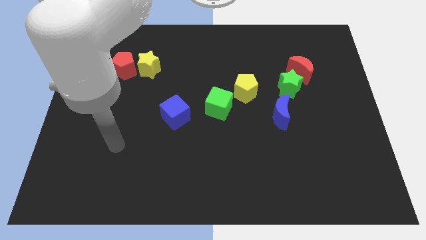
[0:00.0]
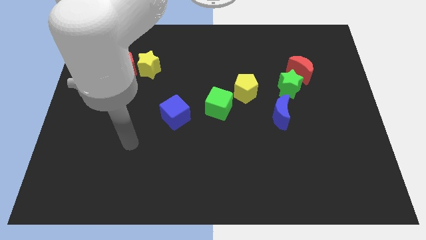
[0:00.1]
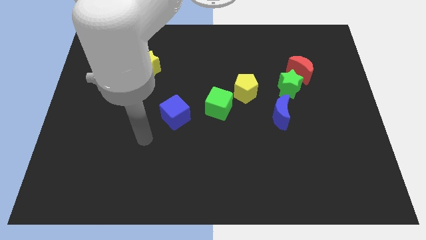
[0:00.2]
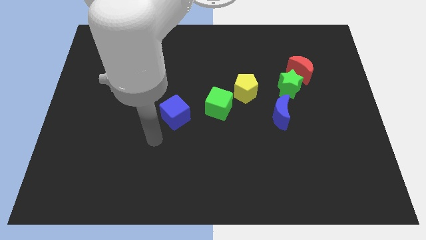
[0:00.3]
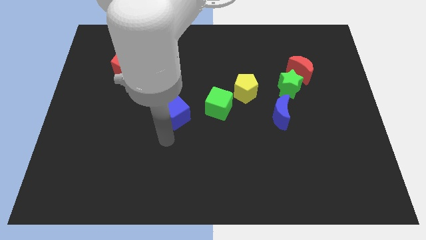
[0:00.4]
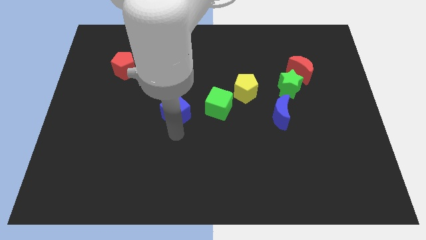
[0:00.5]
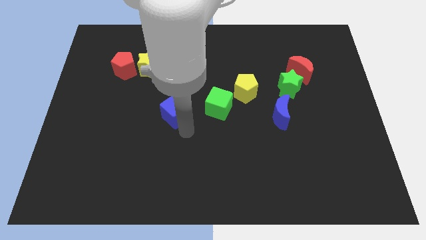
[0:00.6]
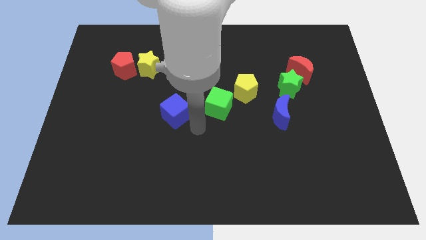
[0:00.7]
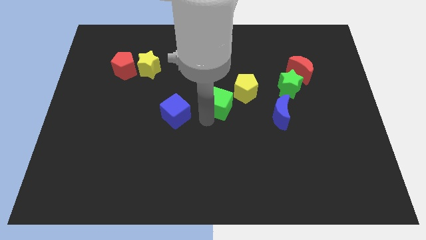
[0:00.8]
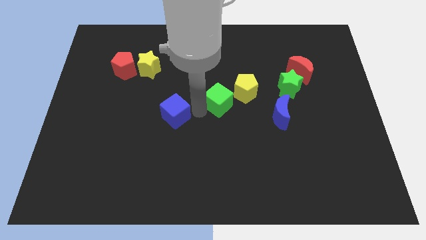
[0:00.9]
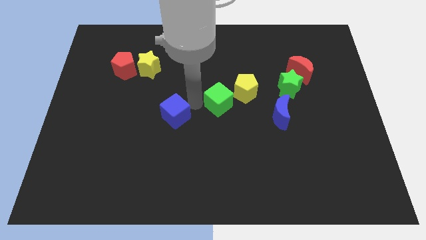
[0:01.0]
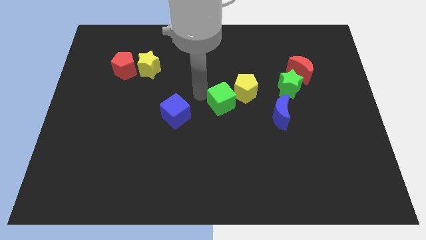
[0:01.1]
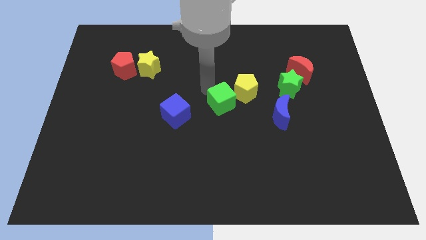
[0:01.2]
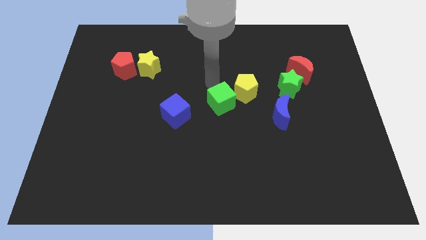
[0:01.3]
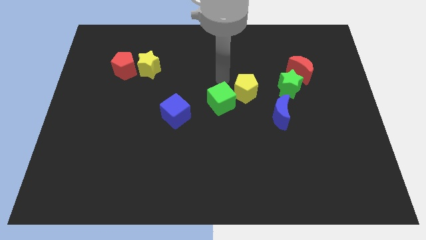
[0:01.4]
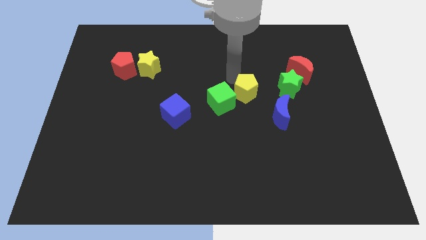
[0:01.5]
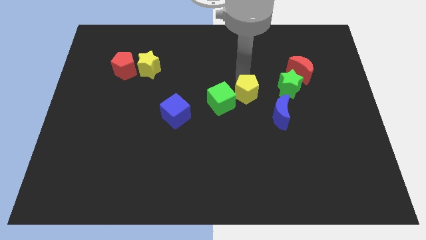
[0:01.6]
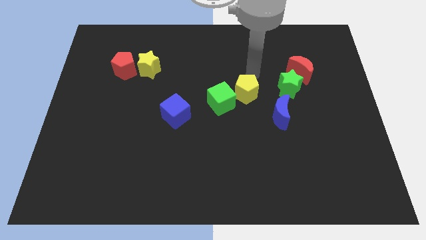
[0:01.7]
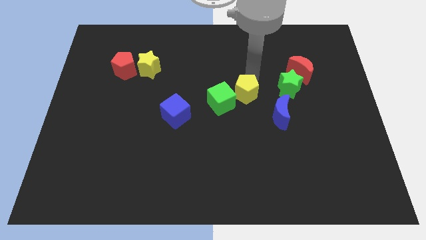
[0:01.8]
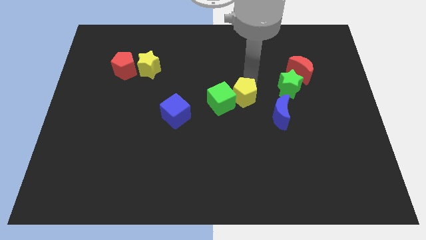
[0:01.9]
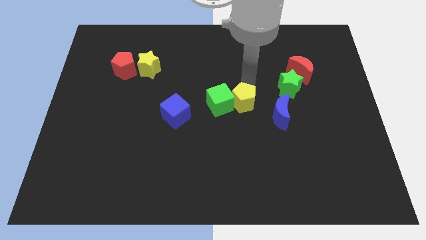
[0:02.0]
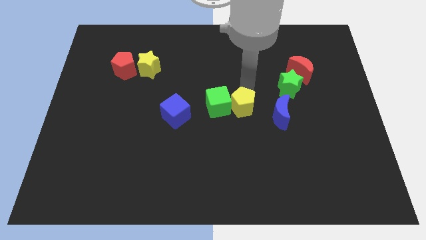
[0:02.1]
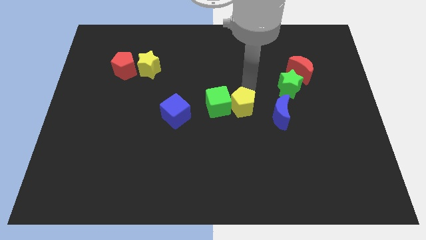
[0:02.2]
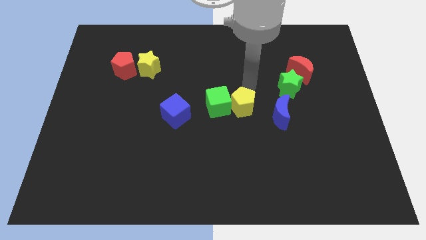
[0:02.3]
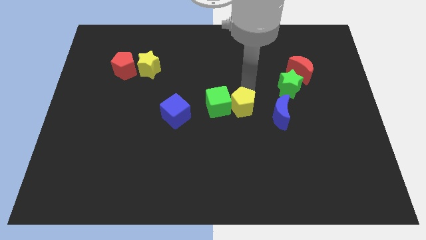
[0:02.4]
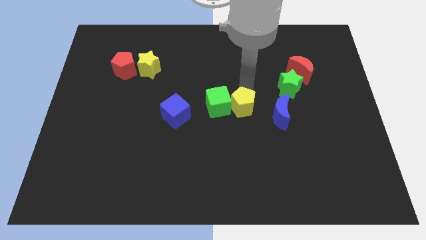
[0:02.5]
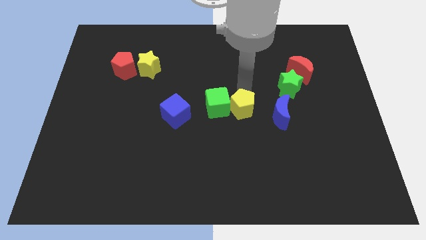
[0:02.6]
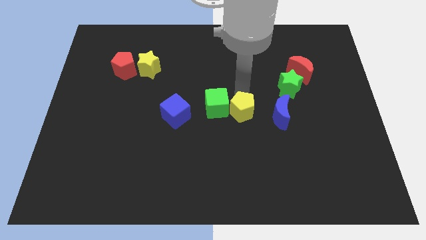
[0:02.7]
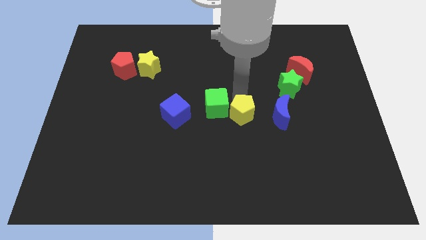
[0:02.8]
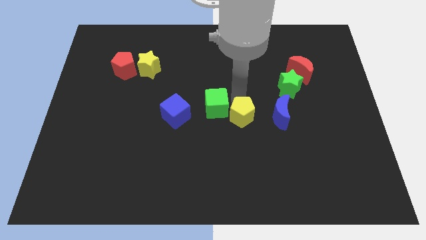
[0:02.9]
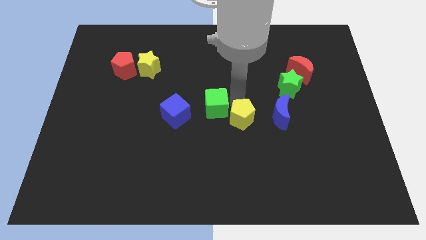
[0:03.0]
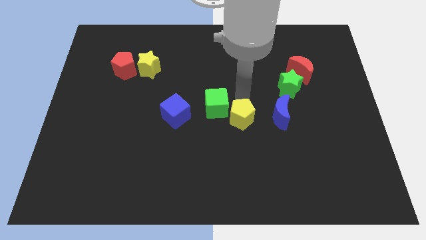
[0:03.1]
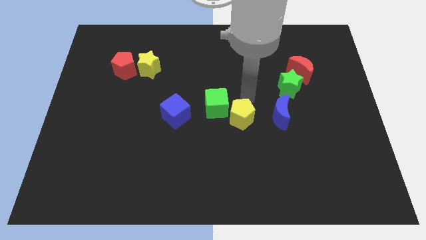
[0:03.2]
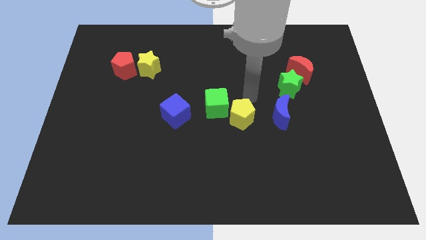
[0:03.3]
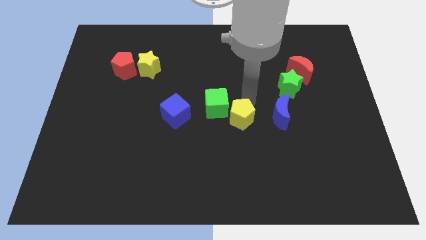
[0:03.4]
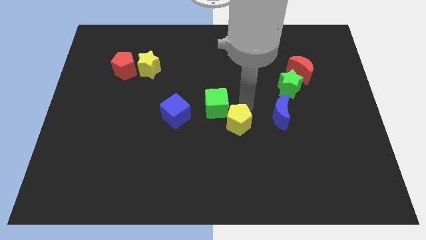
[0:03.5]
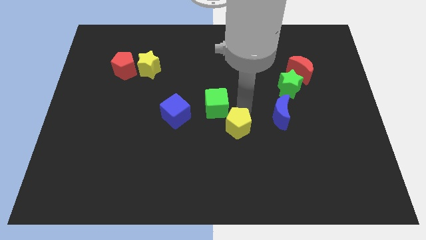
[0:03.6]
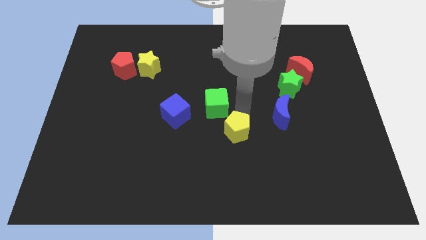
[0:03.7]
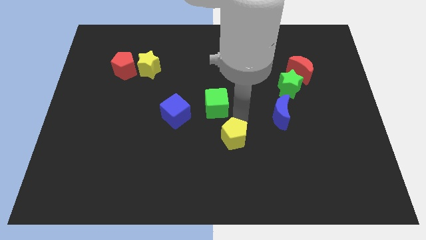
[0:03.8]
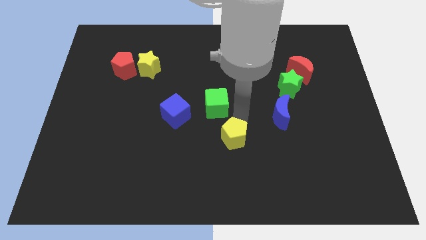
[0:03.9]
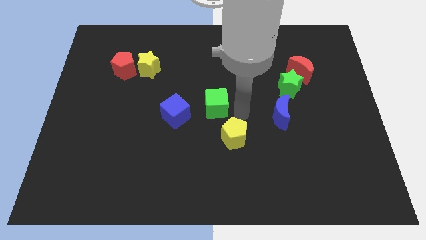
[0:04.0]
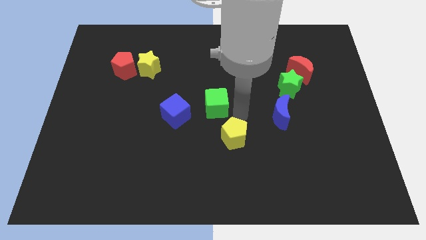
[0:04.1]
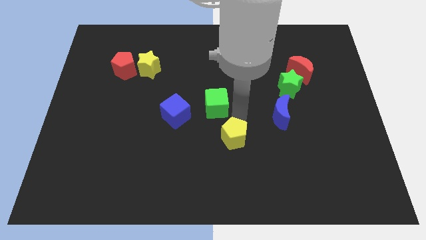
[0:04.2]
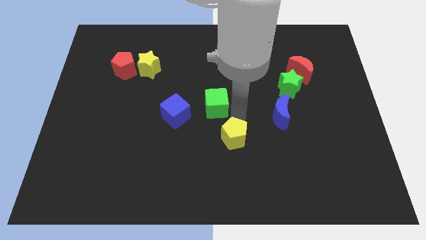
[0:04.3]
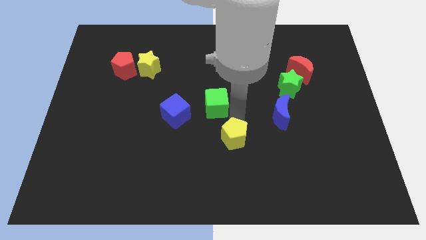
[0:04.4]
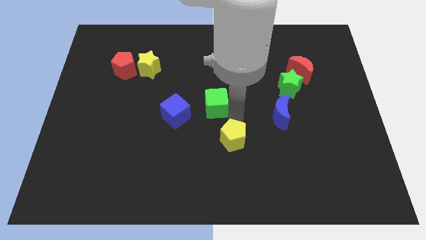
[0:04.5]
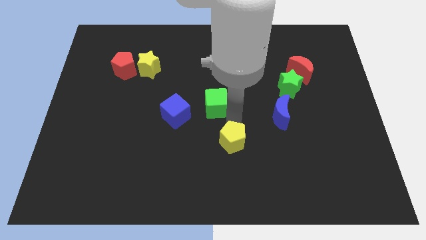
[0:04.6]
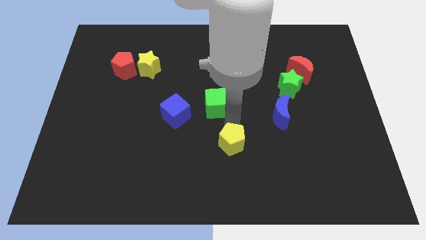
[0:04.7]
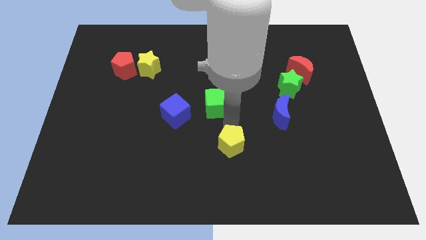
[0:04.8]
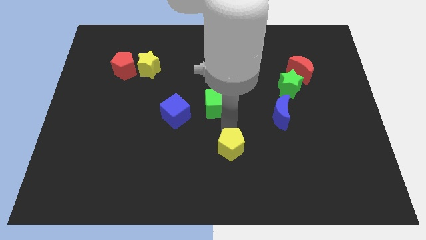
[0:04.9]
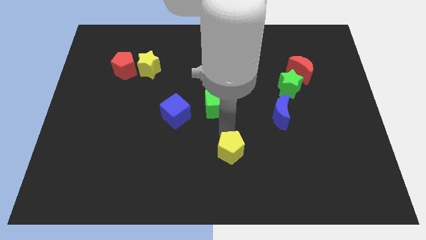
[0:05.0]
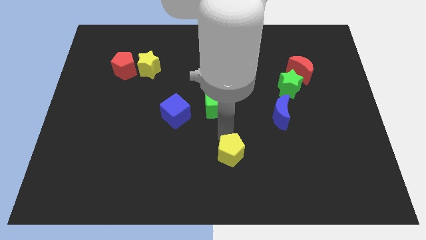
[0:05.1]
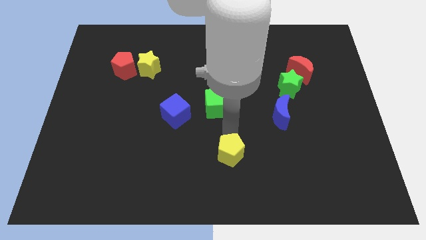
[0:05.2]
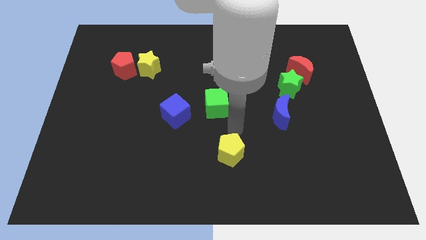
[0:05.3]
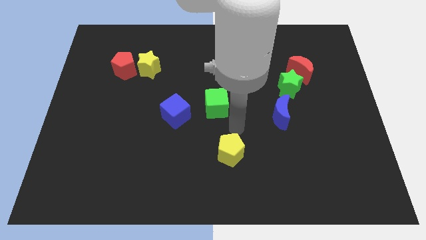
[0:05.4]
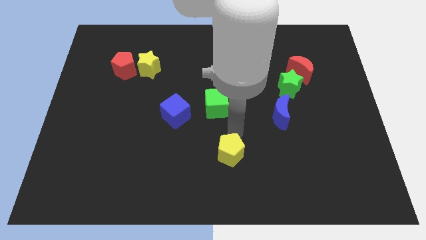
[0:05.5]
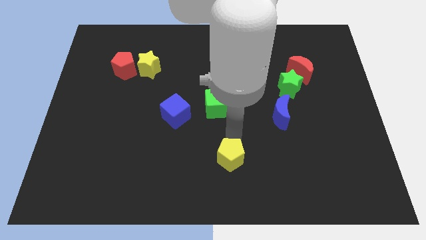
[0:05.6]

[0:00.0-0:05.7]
put the yellow pentagon to the bottom

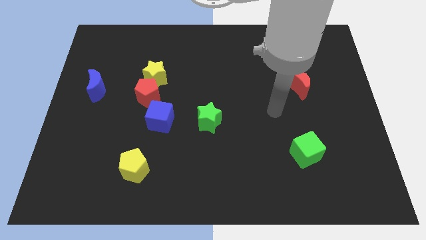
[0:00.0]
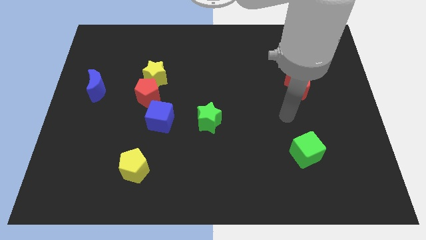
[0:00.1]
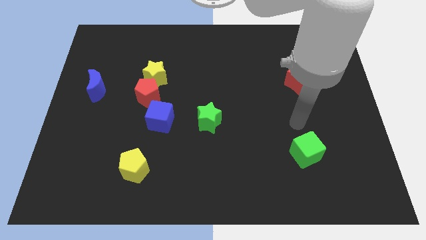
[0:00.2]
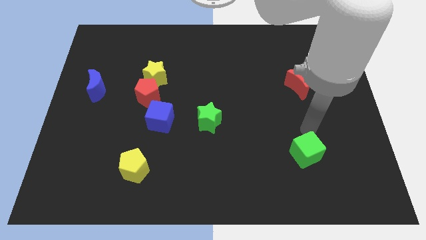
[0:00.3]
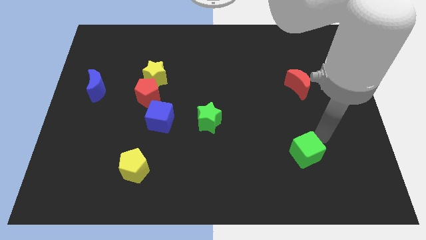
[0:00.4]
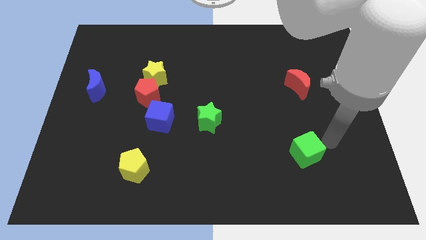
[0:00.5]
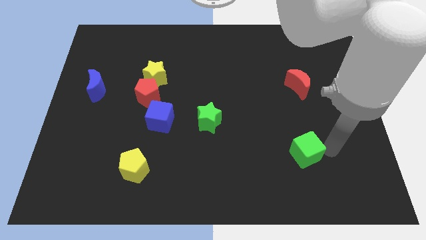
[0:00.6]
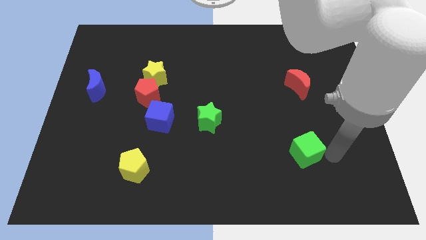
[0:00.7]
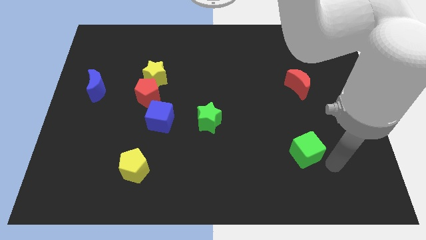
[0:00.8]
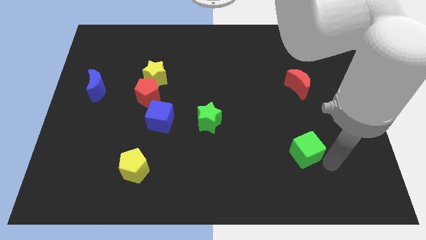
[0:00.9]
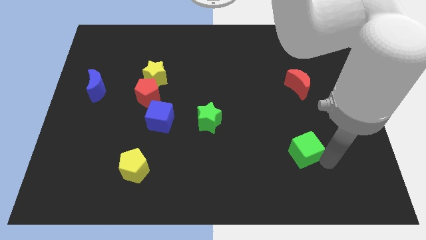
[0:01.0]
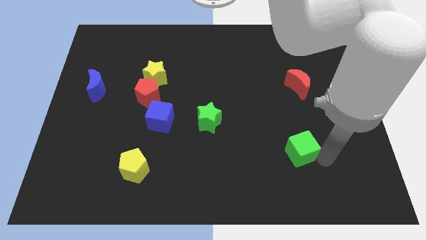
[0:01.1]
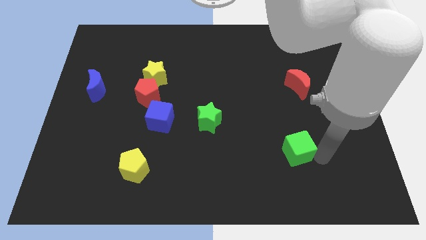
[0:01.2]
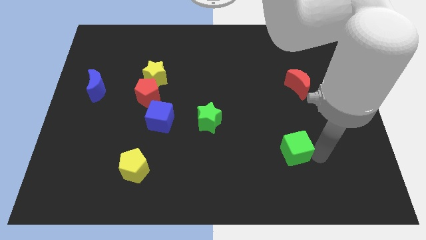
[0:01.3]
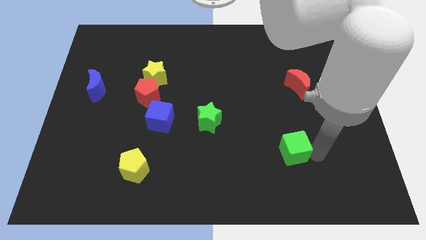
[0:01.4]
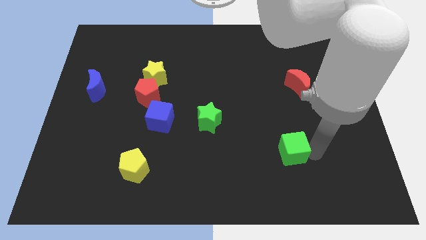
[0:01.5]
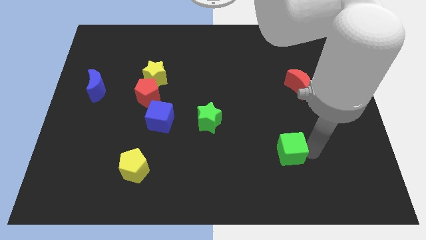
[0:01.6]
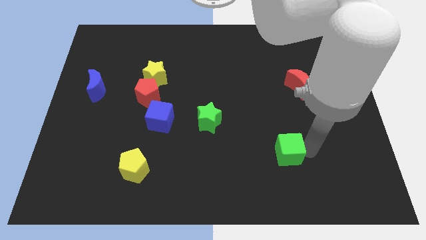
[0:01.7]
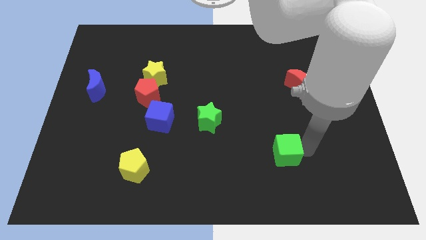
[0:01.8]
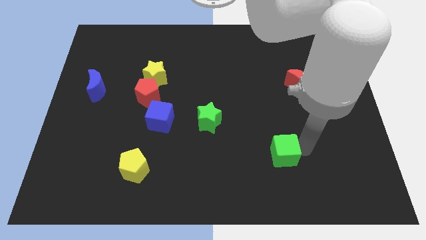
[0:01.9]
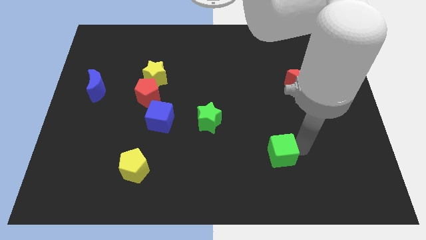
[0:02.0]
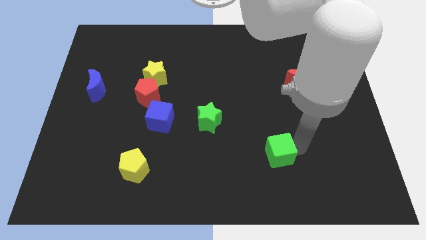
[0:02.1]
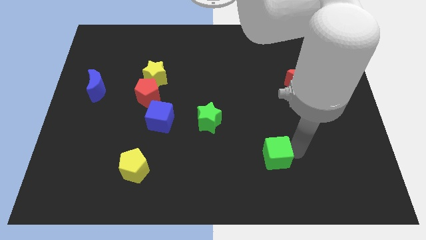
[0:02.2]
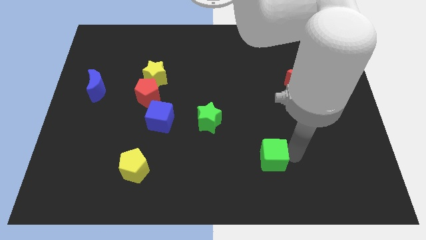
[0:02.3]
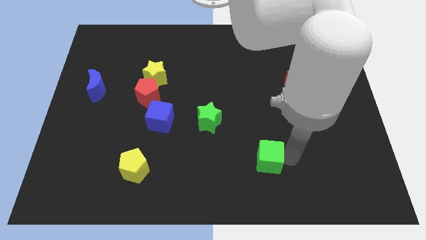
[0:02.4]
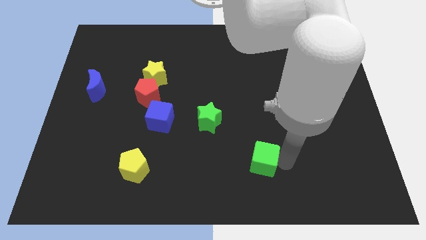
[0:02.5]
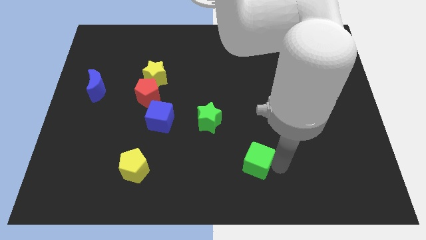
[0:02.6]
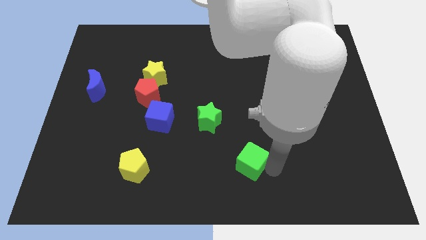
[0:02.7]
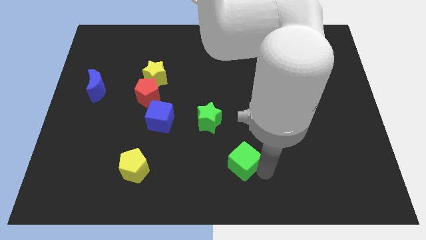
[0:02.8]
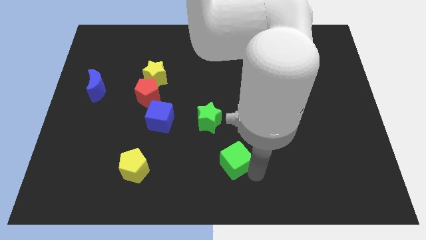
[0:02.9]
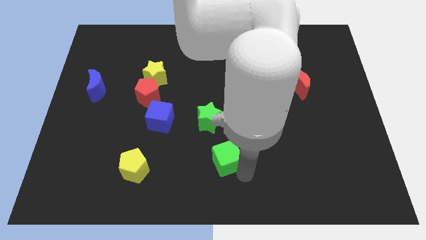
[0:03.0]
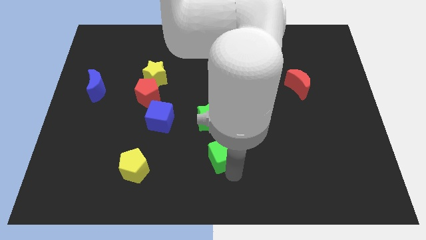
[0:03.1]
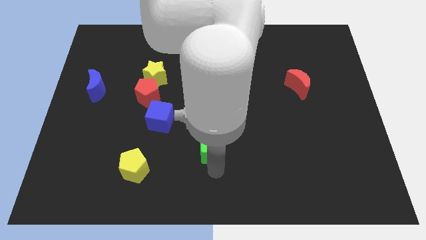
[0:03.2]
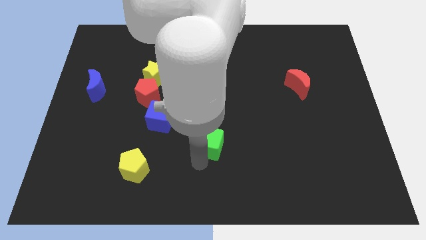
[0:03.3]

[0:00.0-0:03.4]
put the green cube to the middle
